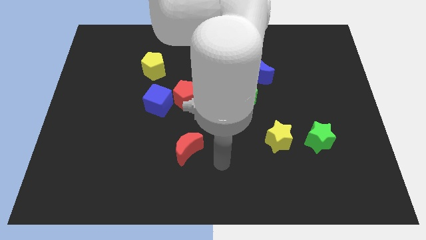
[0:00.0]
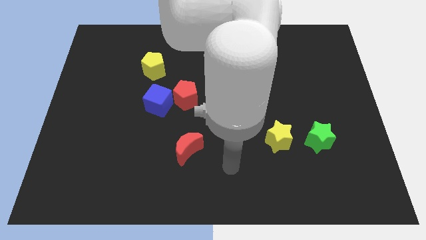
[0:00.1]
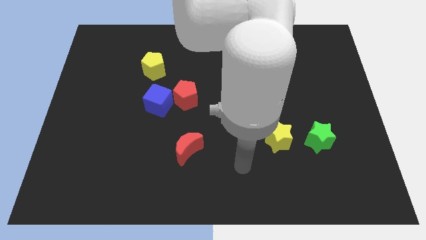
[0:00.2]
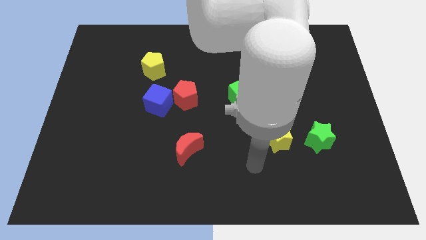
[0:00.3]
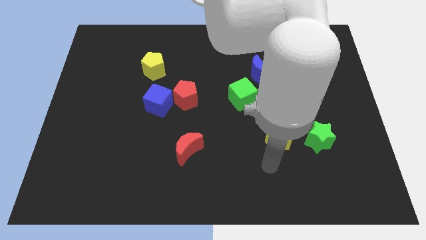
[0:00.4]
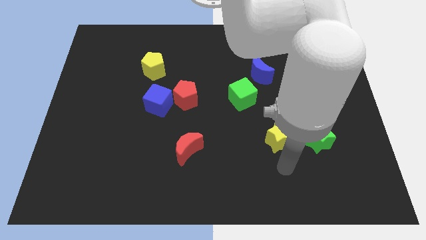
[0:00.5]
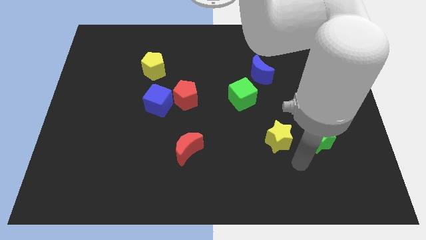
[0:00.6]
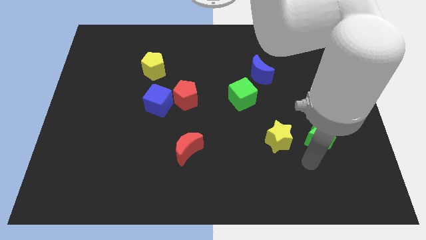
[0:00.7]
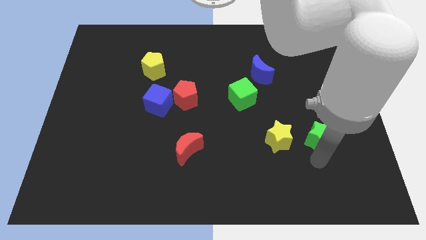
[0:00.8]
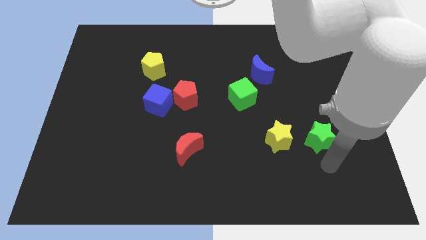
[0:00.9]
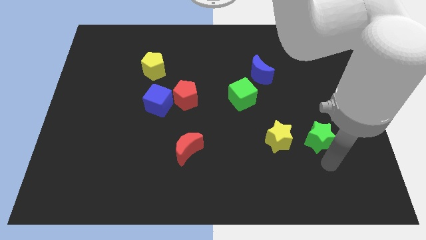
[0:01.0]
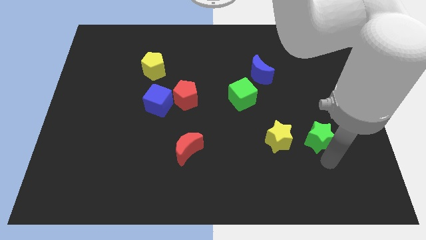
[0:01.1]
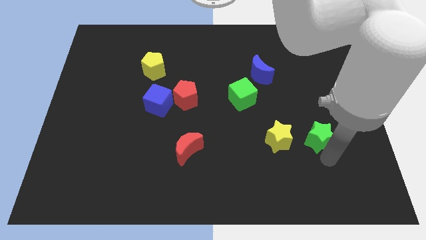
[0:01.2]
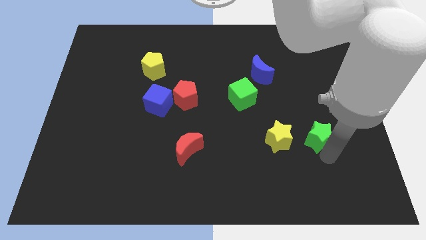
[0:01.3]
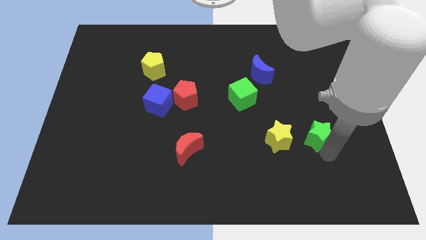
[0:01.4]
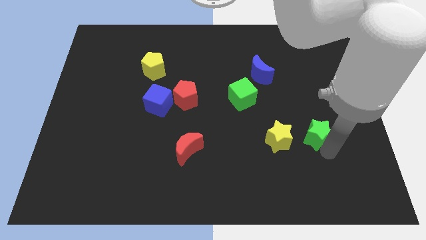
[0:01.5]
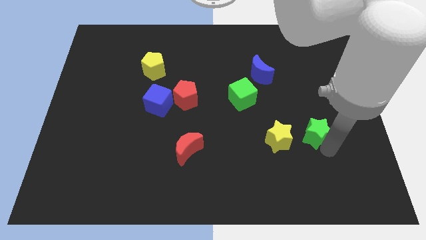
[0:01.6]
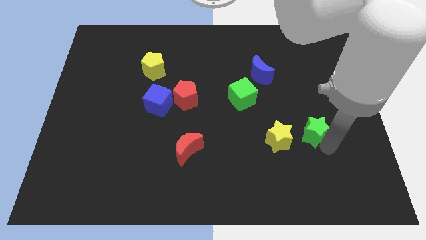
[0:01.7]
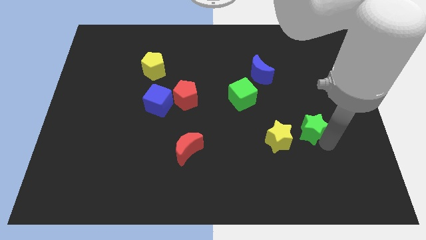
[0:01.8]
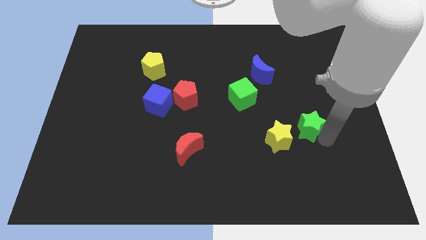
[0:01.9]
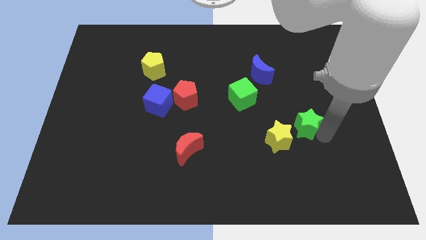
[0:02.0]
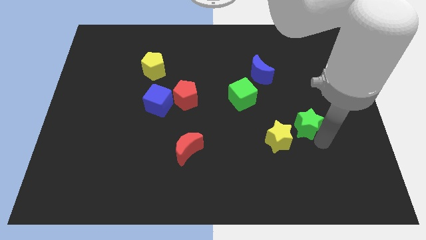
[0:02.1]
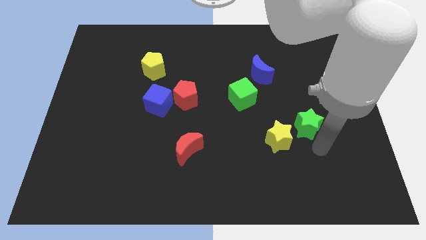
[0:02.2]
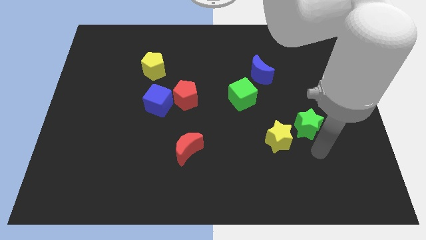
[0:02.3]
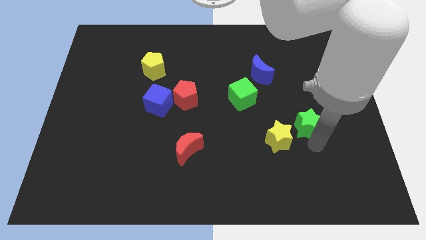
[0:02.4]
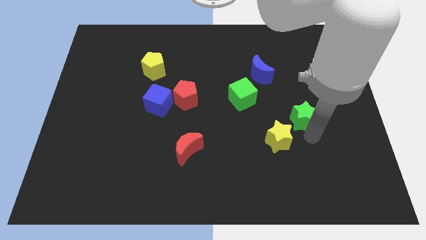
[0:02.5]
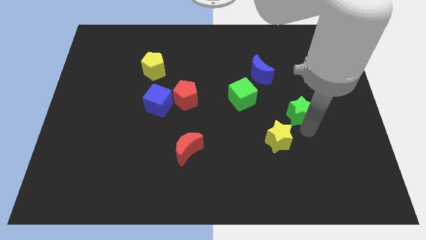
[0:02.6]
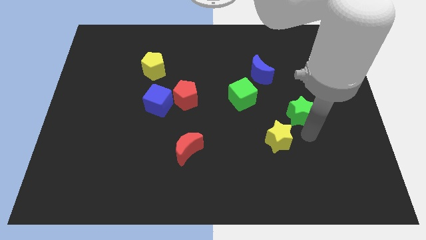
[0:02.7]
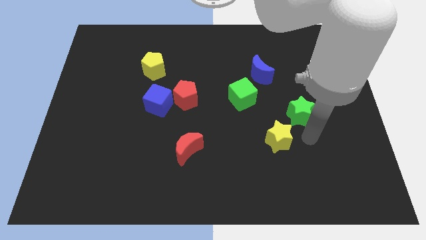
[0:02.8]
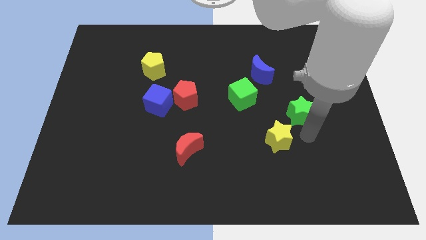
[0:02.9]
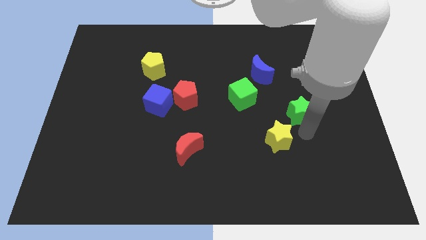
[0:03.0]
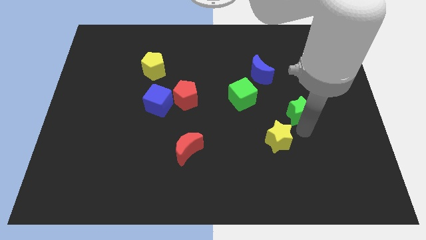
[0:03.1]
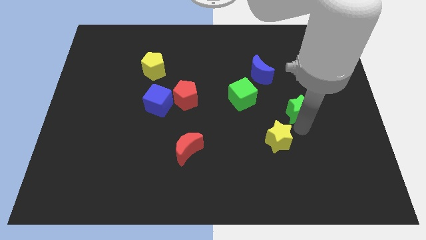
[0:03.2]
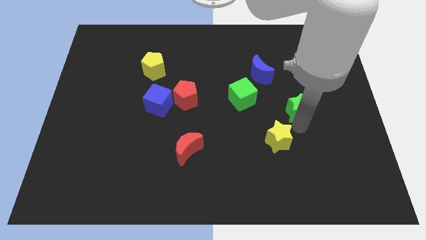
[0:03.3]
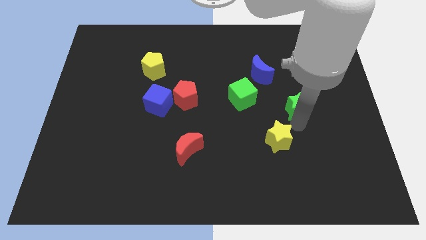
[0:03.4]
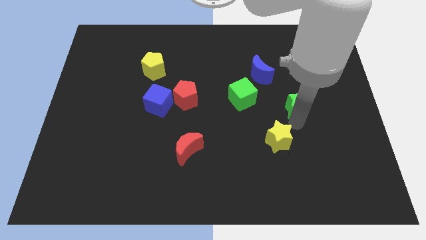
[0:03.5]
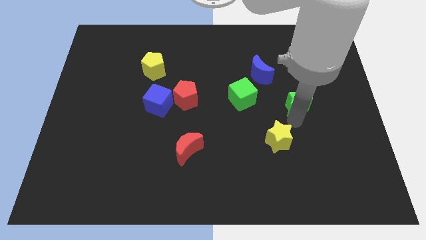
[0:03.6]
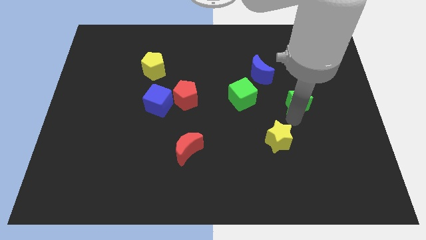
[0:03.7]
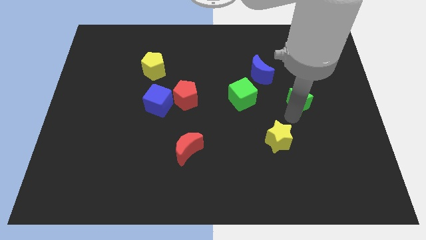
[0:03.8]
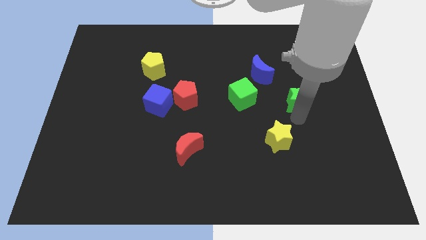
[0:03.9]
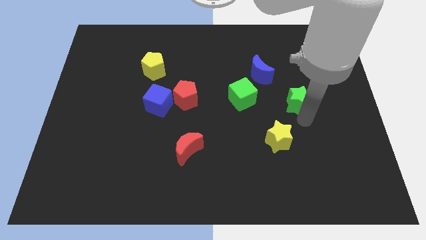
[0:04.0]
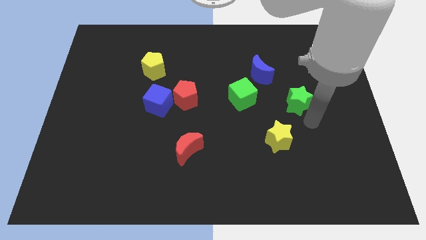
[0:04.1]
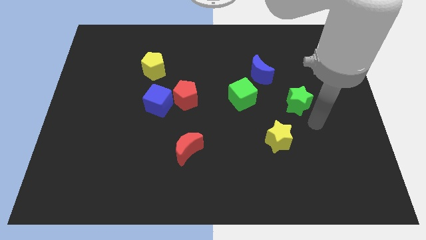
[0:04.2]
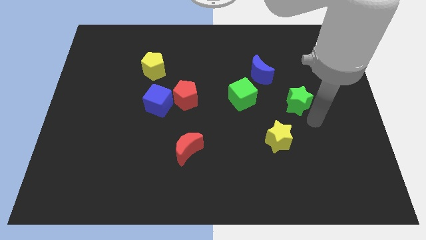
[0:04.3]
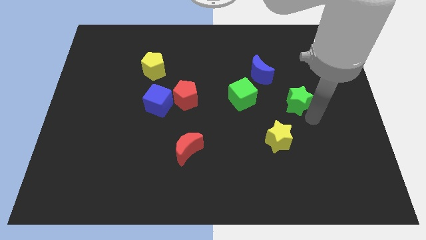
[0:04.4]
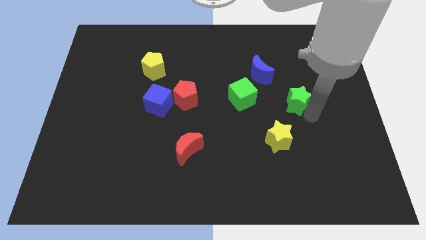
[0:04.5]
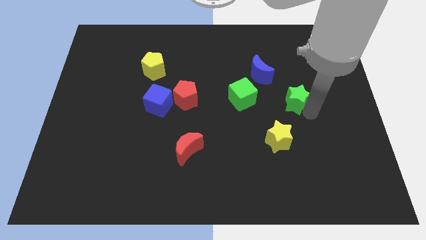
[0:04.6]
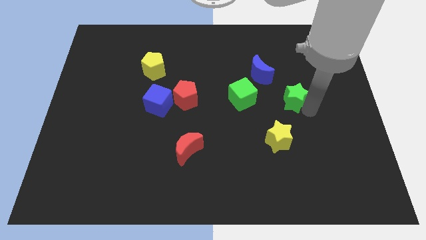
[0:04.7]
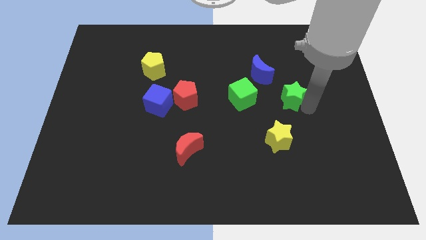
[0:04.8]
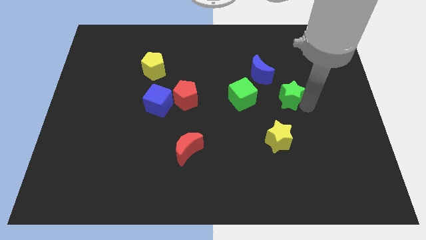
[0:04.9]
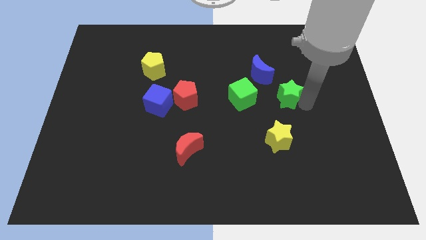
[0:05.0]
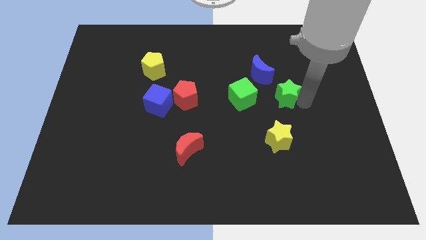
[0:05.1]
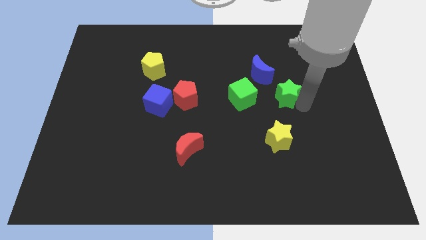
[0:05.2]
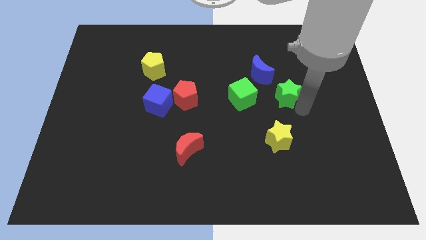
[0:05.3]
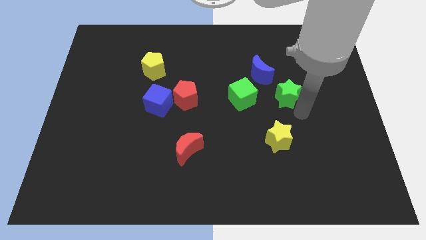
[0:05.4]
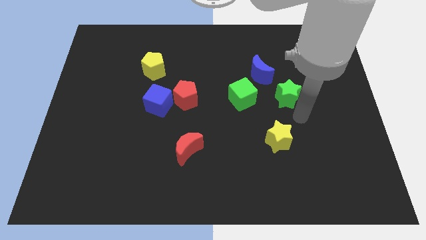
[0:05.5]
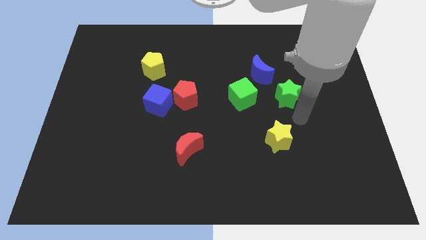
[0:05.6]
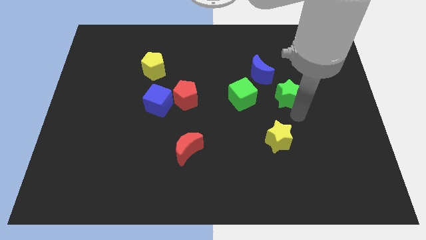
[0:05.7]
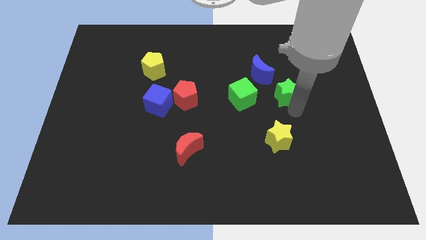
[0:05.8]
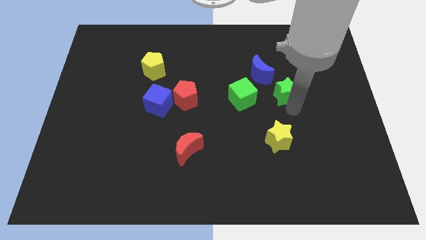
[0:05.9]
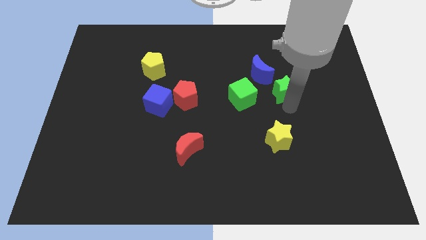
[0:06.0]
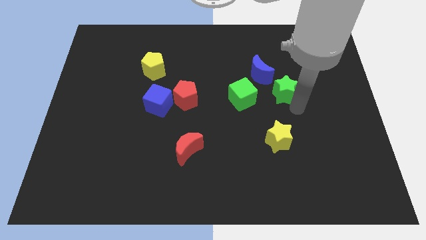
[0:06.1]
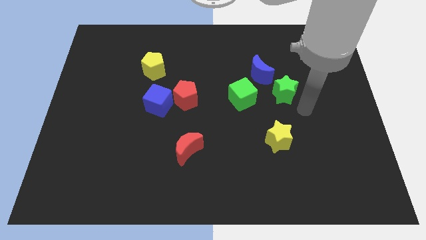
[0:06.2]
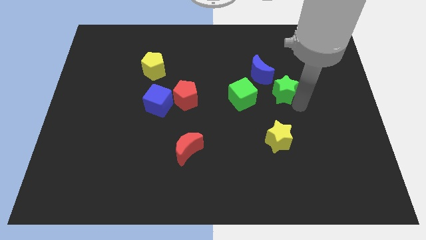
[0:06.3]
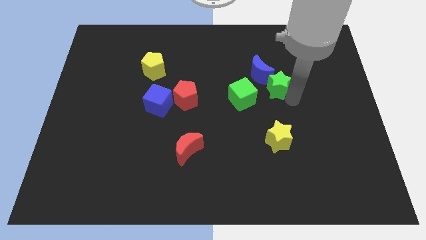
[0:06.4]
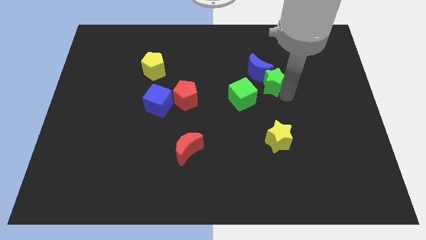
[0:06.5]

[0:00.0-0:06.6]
push the green star towards the blue moon

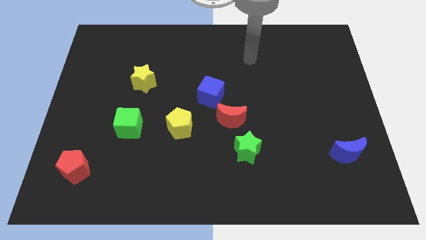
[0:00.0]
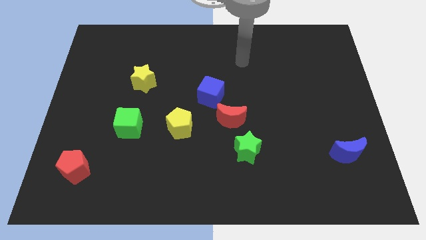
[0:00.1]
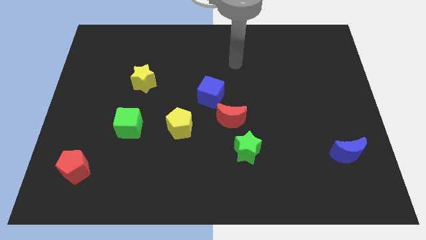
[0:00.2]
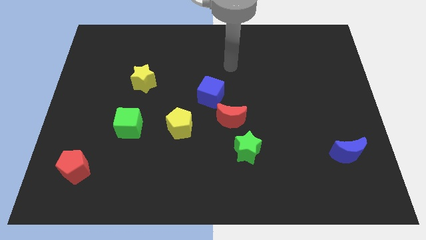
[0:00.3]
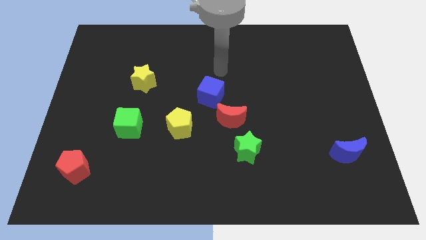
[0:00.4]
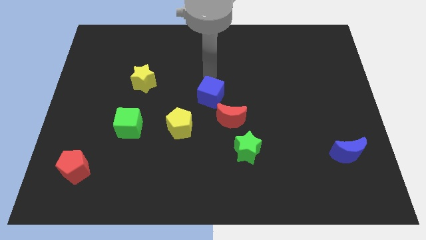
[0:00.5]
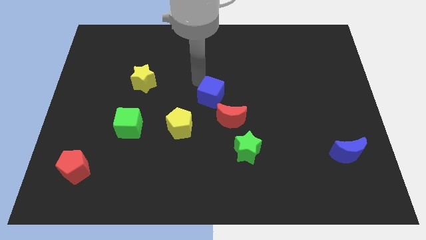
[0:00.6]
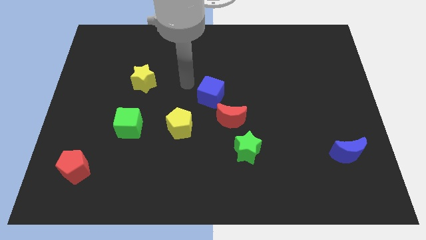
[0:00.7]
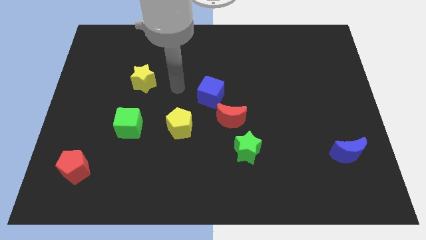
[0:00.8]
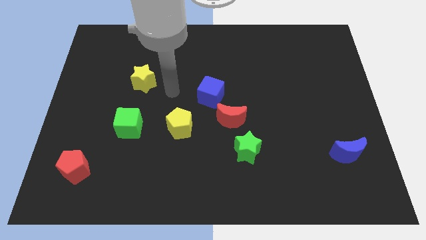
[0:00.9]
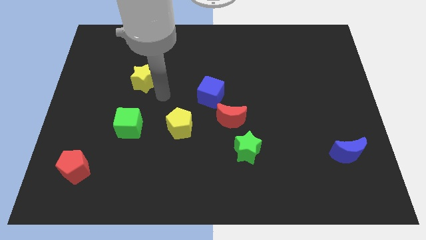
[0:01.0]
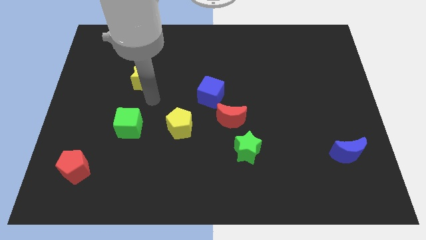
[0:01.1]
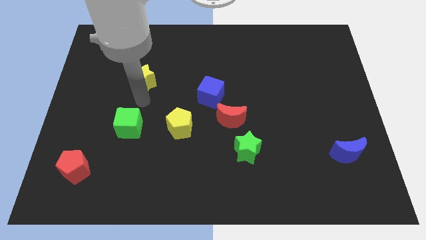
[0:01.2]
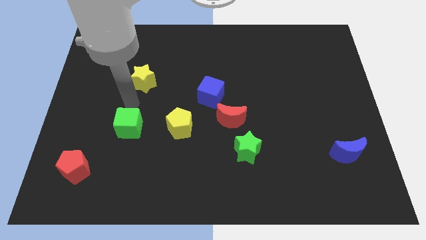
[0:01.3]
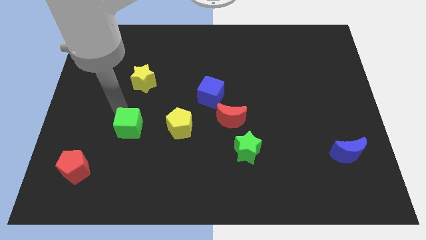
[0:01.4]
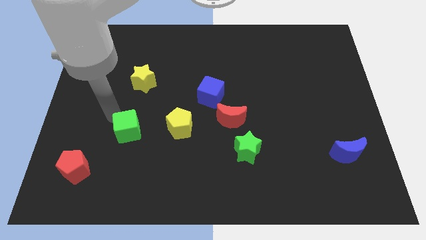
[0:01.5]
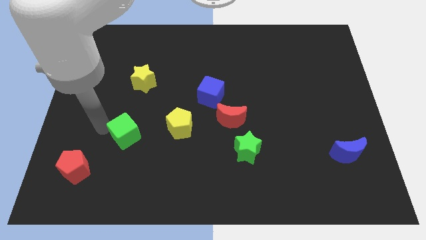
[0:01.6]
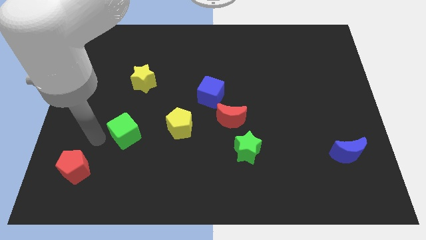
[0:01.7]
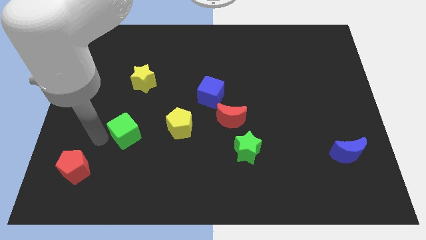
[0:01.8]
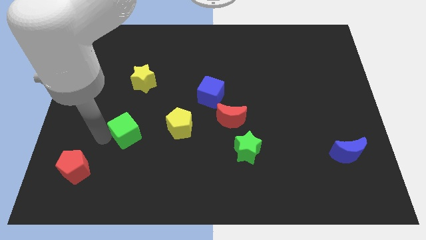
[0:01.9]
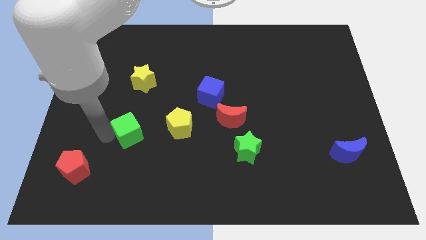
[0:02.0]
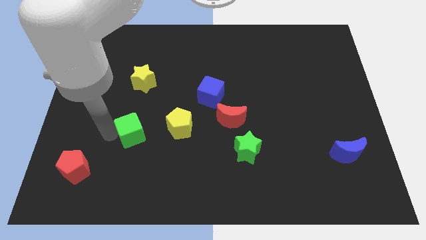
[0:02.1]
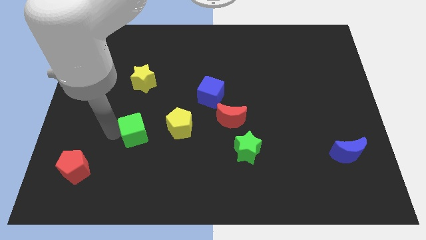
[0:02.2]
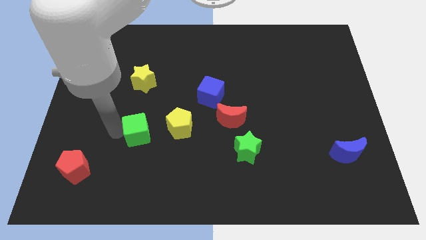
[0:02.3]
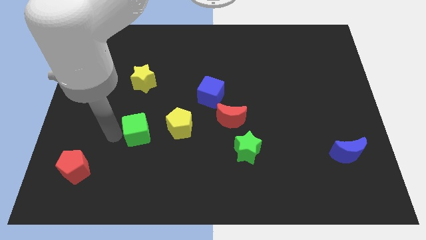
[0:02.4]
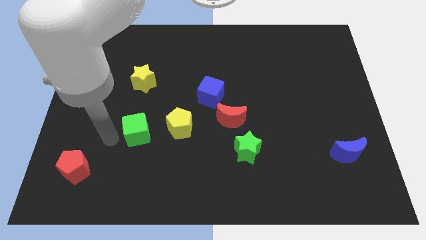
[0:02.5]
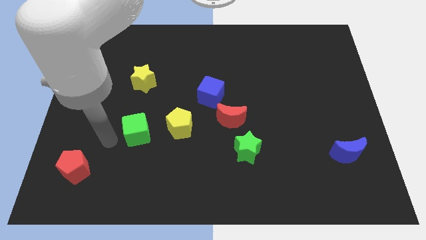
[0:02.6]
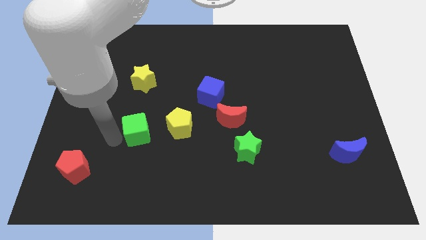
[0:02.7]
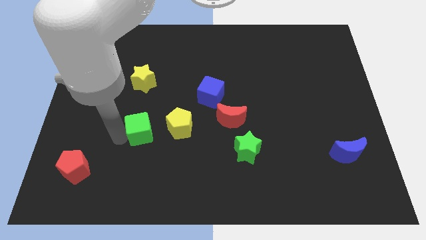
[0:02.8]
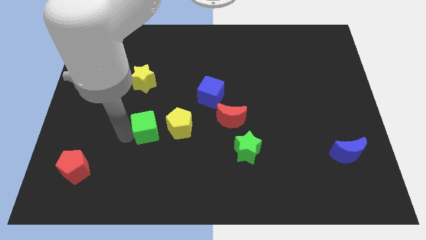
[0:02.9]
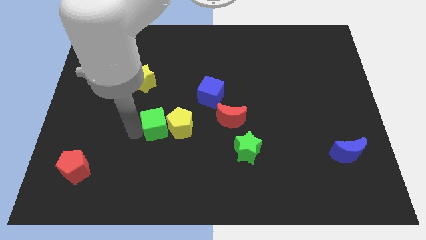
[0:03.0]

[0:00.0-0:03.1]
put the green cube close to the yellow pentagon
